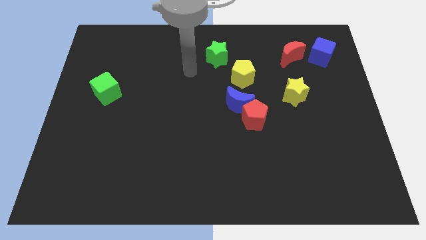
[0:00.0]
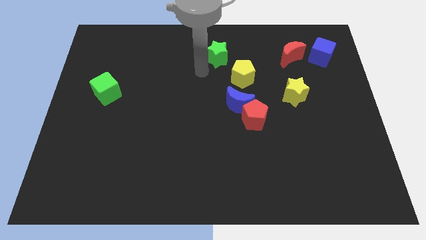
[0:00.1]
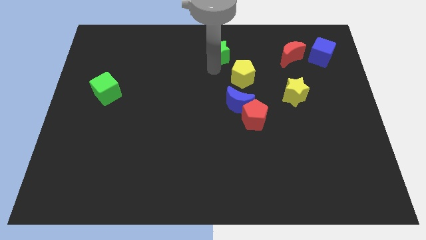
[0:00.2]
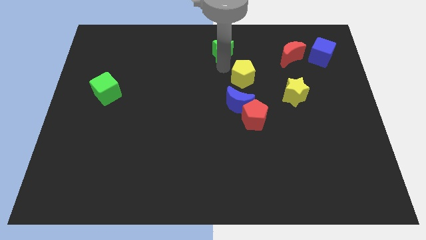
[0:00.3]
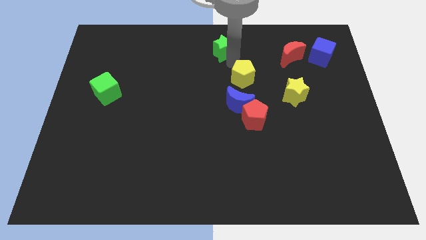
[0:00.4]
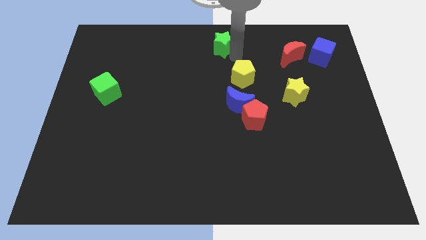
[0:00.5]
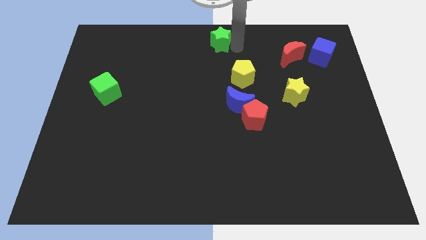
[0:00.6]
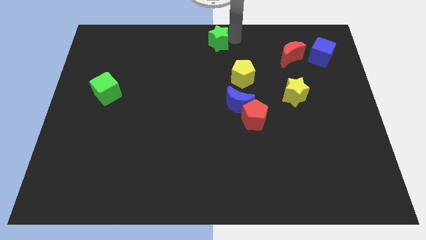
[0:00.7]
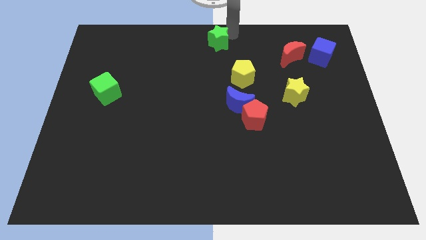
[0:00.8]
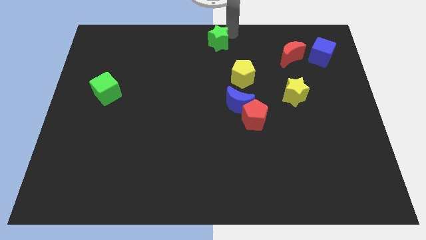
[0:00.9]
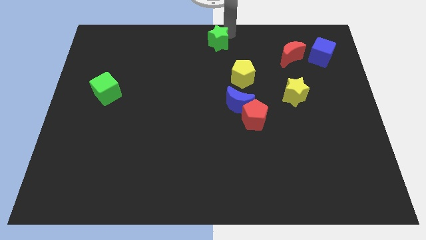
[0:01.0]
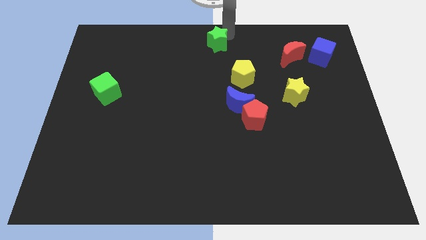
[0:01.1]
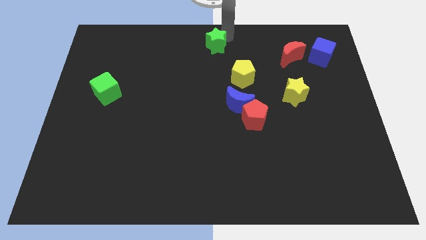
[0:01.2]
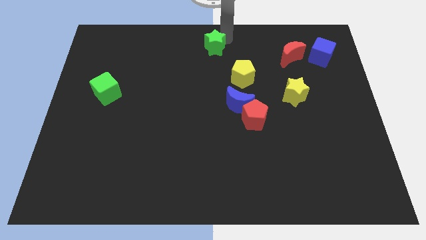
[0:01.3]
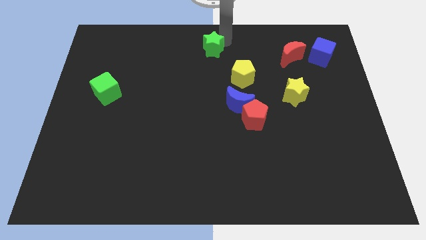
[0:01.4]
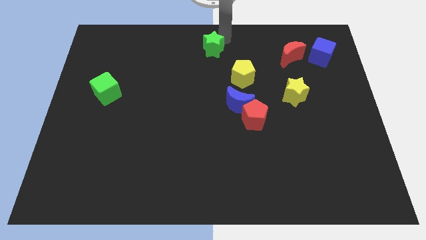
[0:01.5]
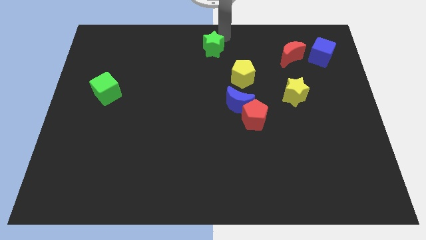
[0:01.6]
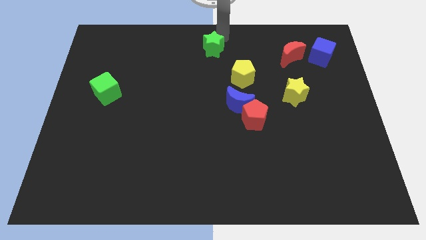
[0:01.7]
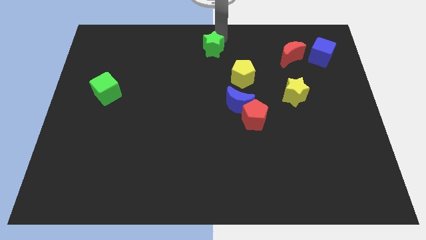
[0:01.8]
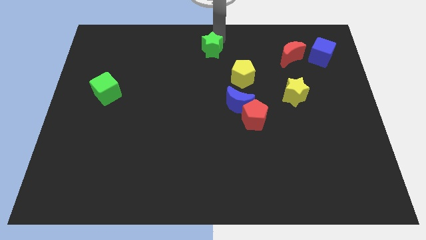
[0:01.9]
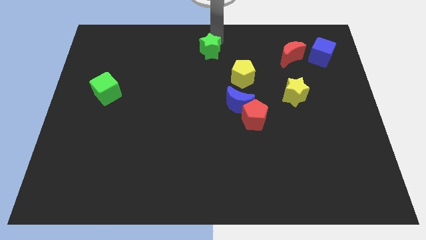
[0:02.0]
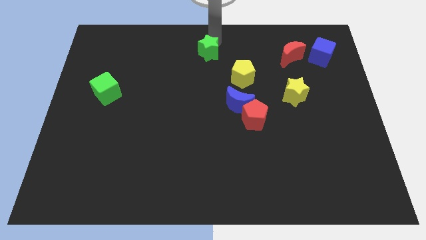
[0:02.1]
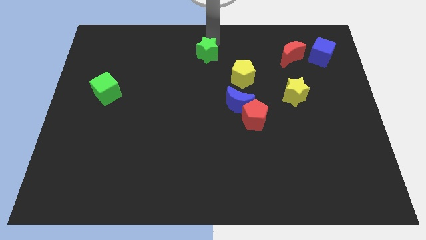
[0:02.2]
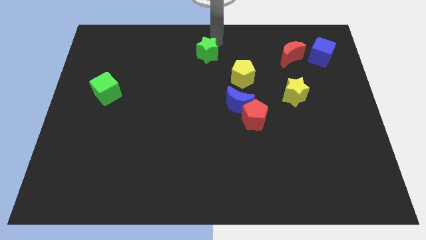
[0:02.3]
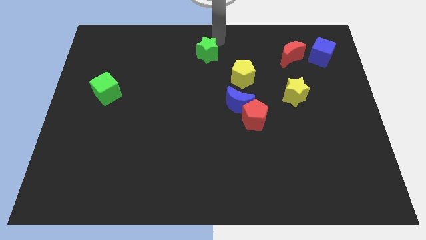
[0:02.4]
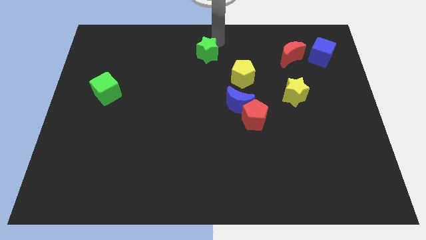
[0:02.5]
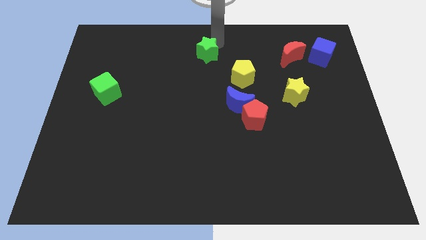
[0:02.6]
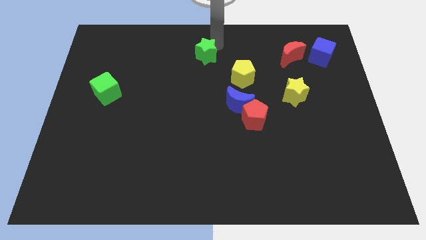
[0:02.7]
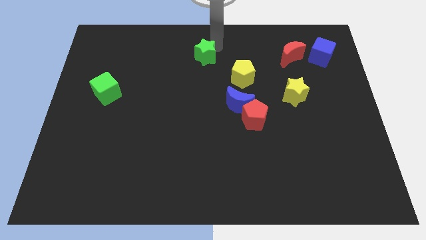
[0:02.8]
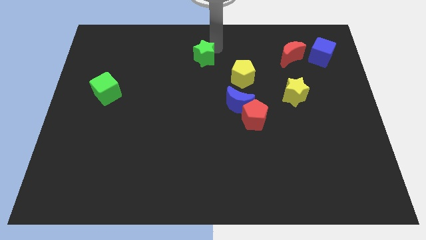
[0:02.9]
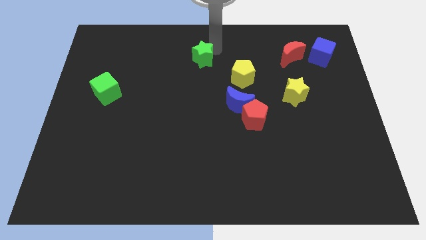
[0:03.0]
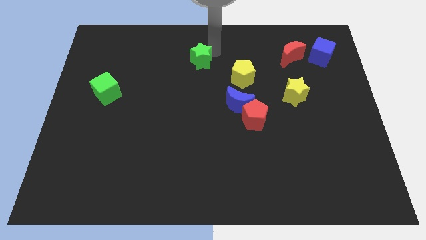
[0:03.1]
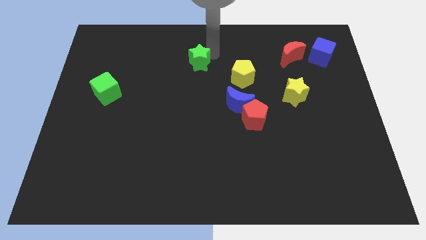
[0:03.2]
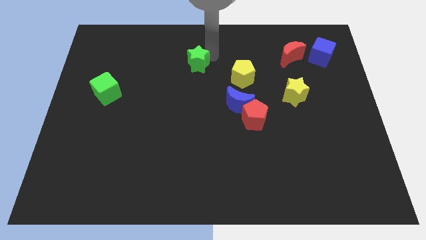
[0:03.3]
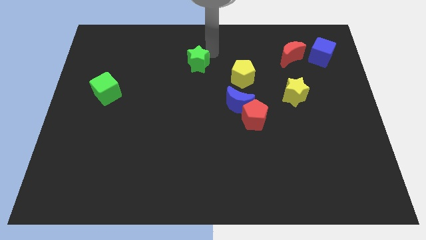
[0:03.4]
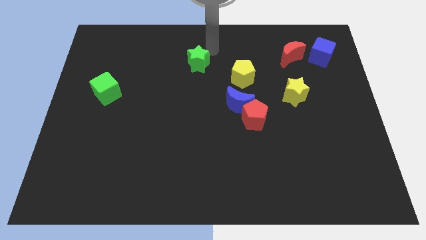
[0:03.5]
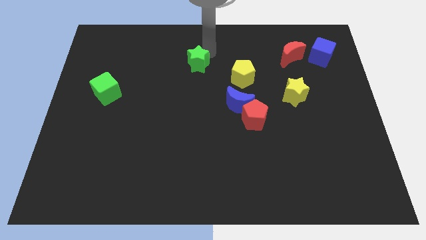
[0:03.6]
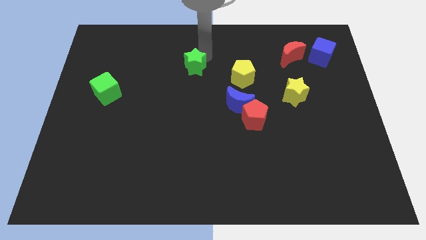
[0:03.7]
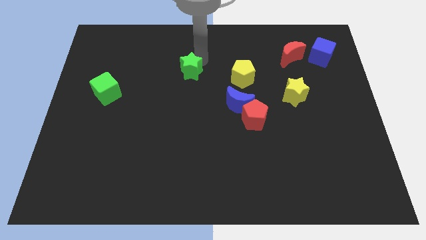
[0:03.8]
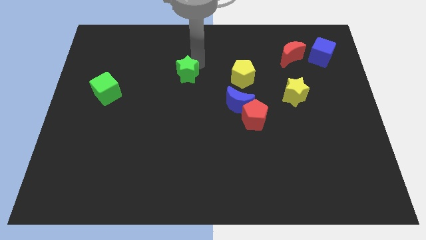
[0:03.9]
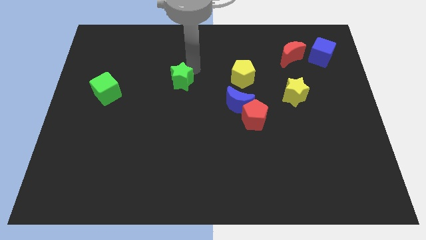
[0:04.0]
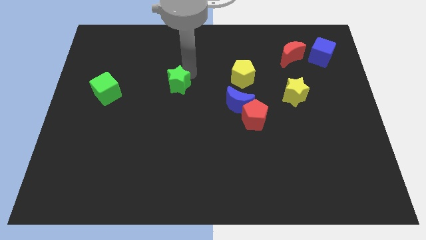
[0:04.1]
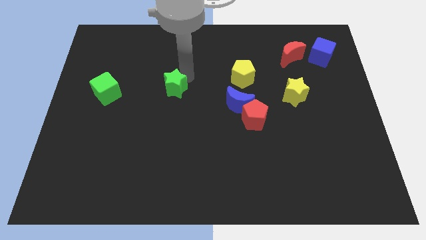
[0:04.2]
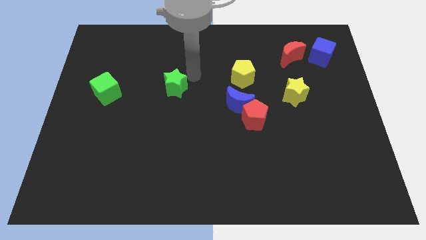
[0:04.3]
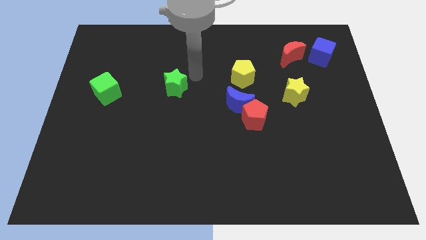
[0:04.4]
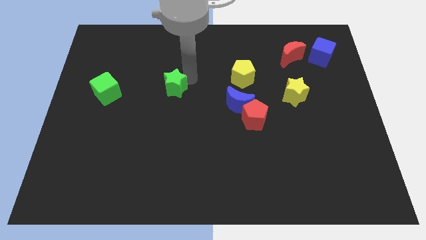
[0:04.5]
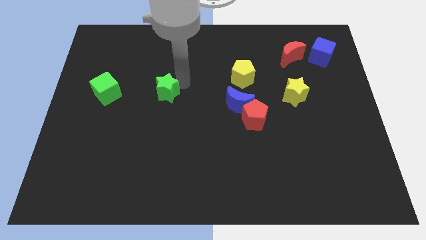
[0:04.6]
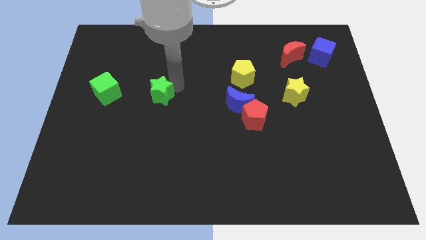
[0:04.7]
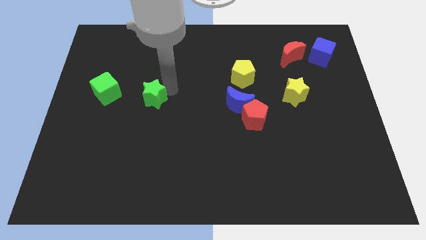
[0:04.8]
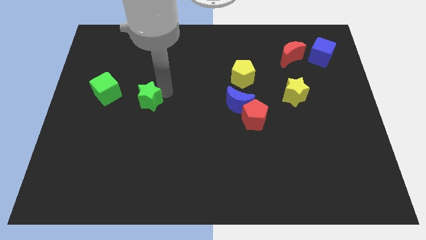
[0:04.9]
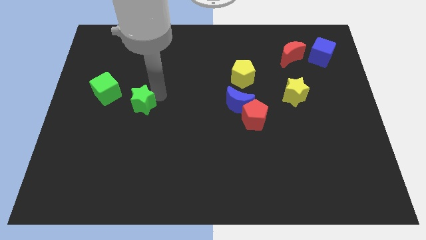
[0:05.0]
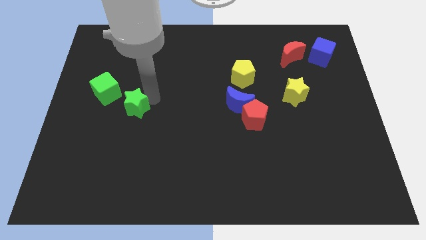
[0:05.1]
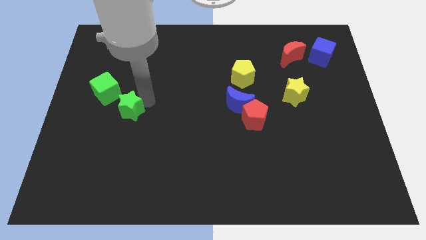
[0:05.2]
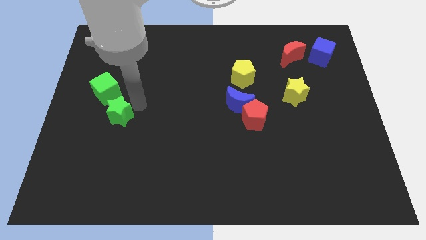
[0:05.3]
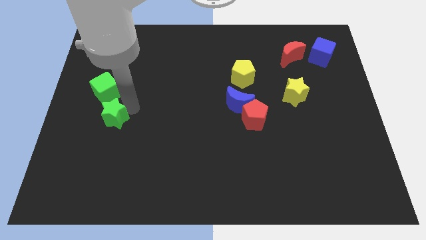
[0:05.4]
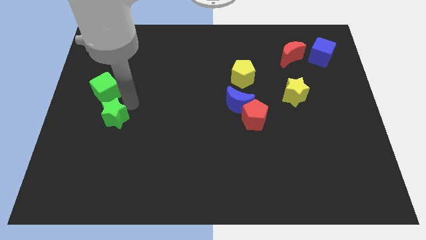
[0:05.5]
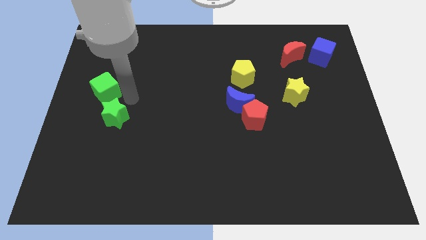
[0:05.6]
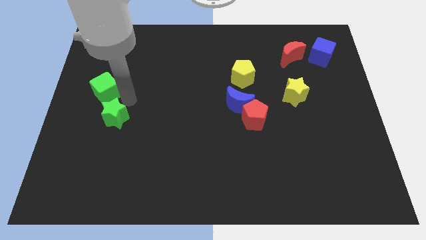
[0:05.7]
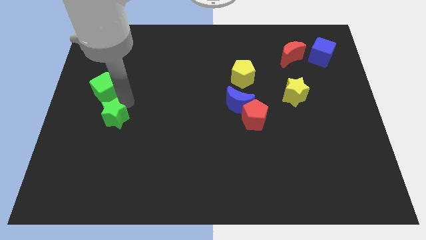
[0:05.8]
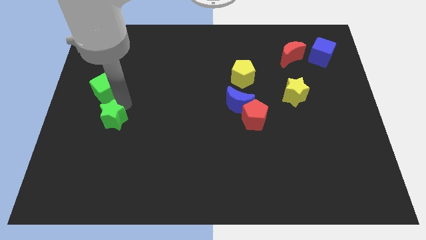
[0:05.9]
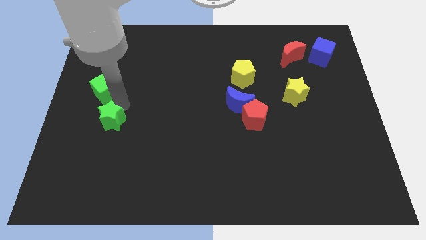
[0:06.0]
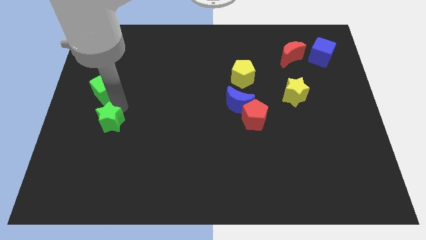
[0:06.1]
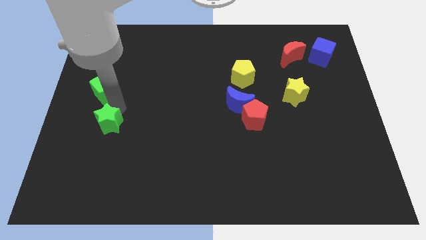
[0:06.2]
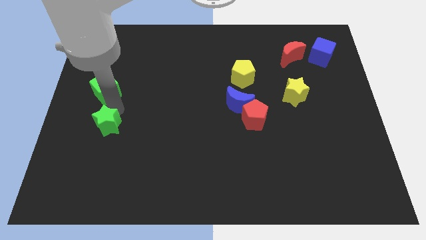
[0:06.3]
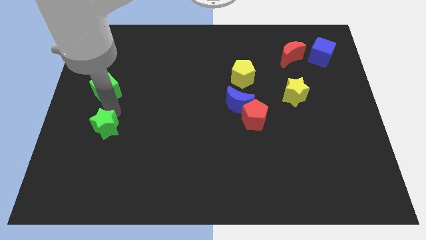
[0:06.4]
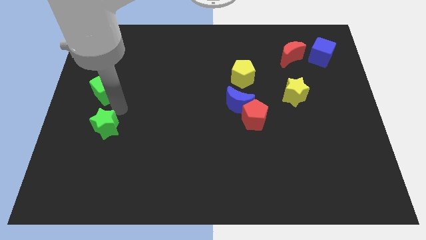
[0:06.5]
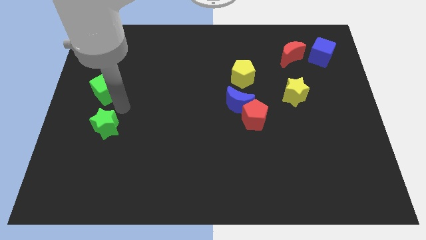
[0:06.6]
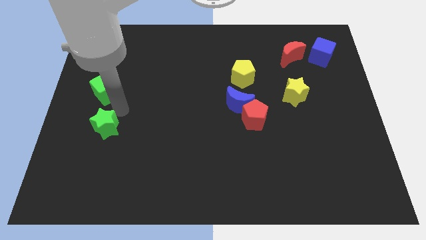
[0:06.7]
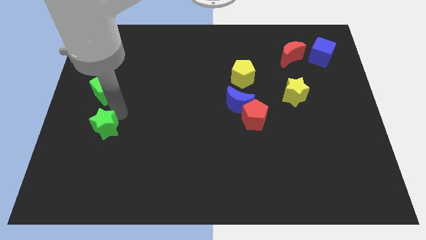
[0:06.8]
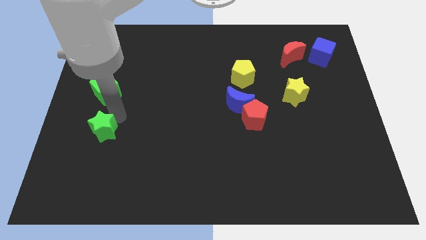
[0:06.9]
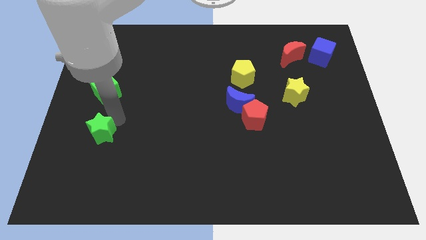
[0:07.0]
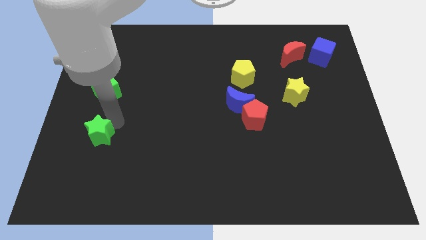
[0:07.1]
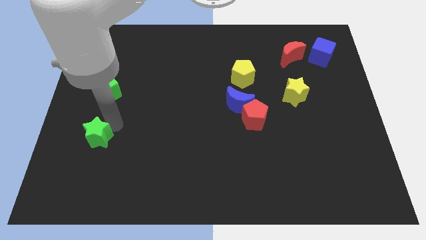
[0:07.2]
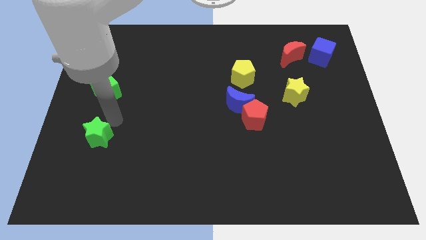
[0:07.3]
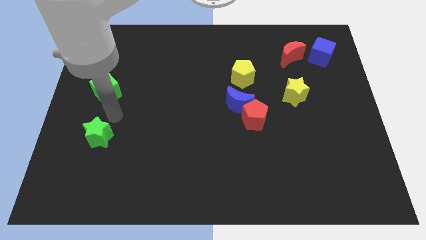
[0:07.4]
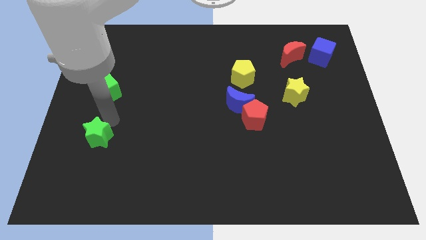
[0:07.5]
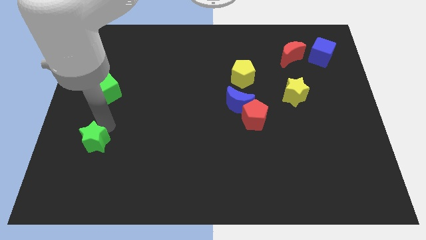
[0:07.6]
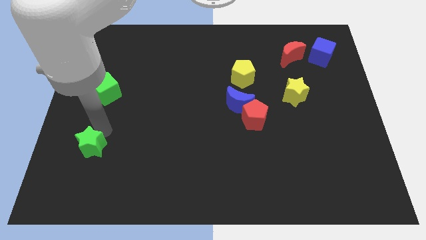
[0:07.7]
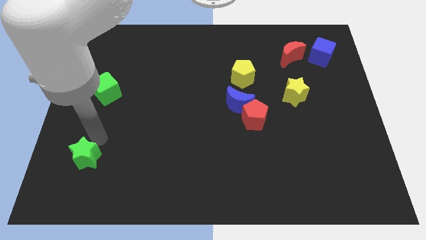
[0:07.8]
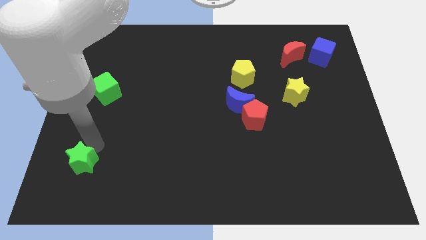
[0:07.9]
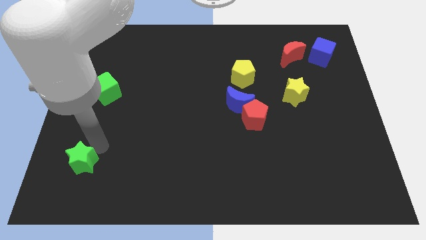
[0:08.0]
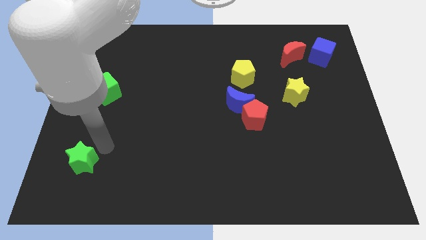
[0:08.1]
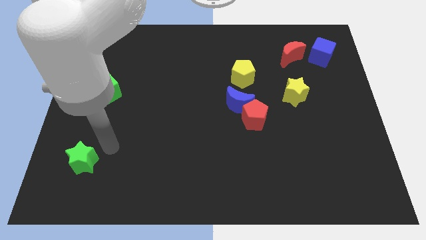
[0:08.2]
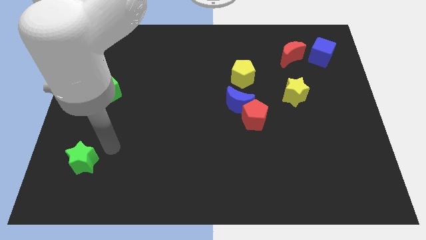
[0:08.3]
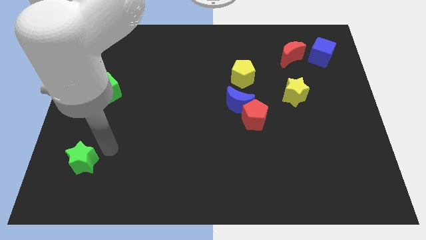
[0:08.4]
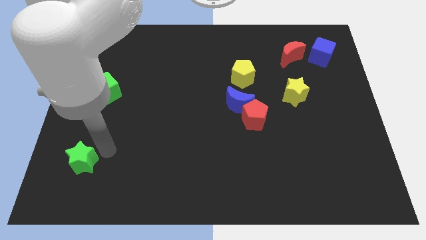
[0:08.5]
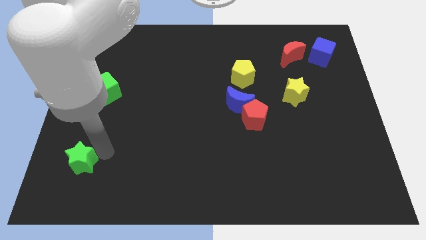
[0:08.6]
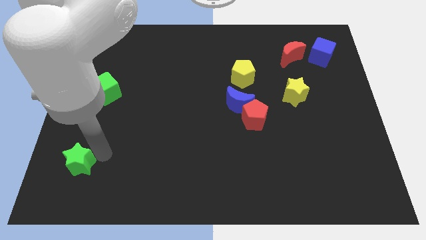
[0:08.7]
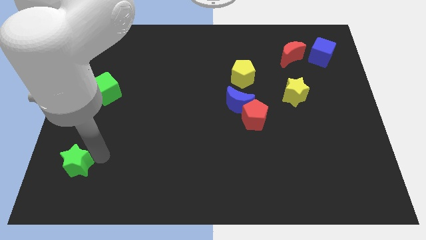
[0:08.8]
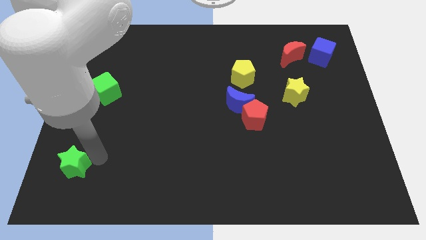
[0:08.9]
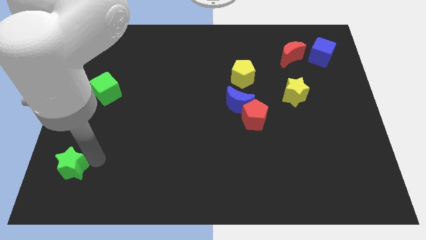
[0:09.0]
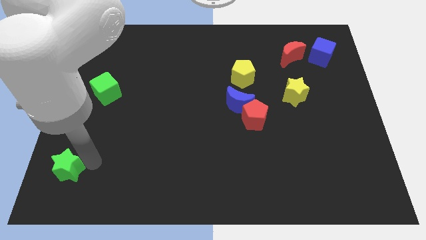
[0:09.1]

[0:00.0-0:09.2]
put the green star to the bottom left corner
